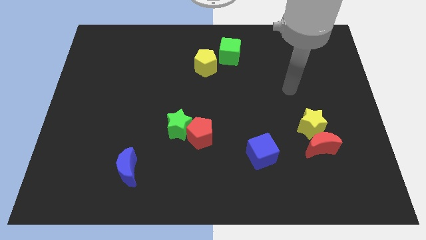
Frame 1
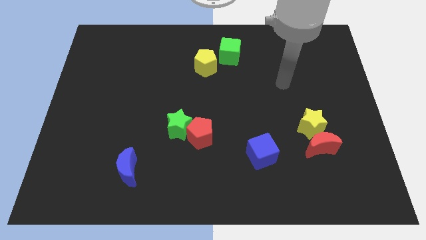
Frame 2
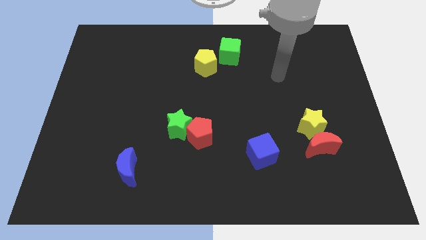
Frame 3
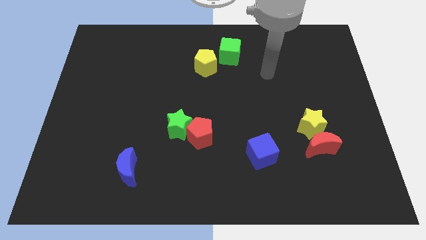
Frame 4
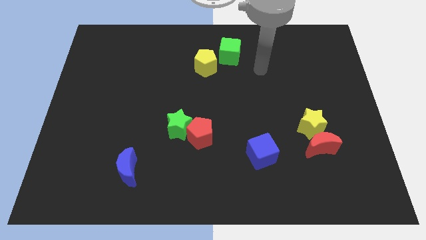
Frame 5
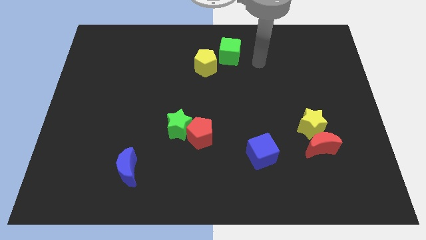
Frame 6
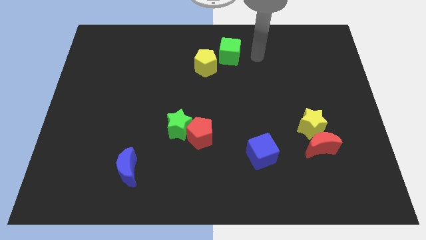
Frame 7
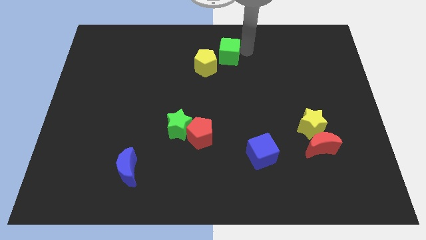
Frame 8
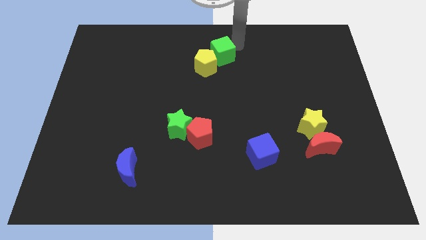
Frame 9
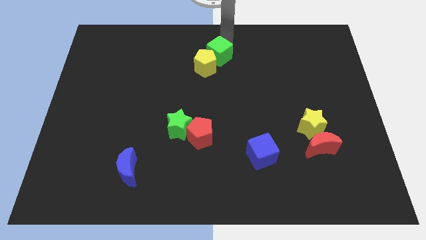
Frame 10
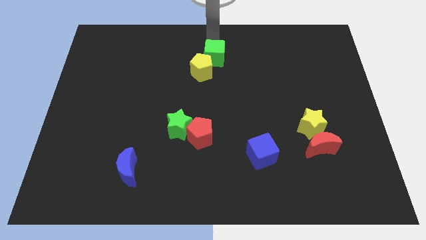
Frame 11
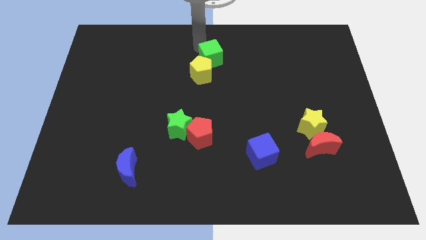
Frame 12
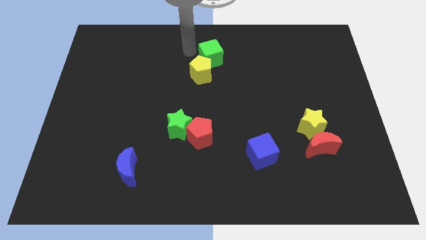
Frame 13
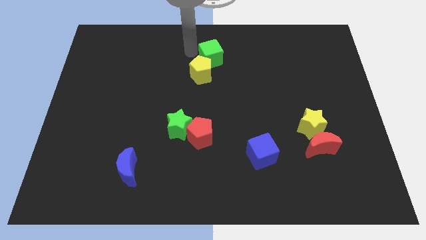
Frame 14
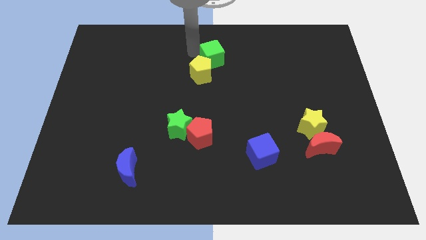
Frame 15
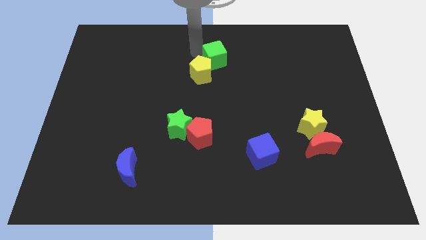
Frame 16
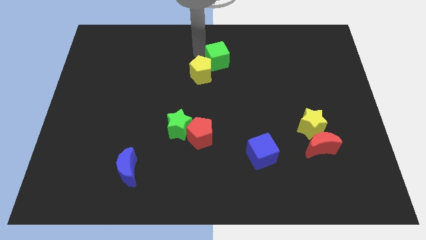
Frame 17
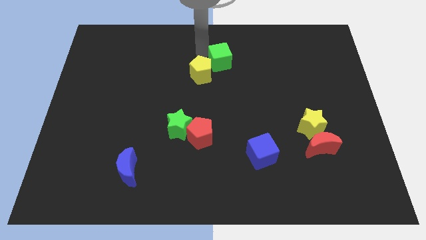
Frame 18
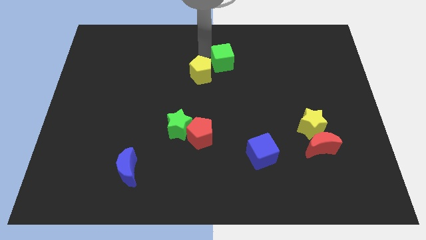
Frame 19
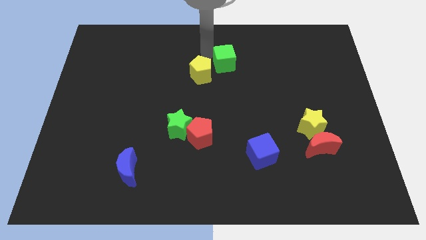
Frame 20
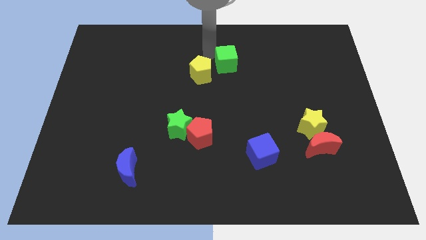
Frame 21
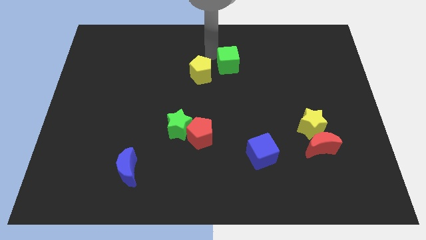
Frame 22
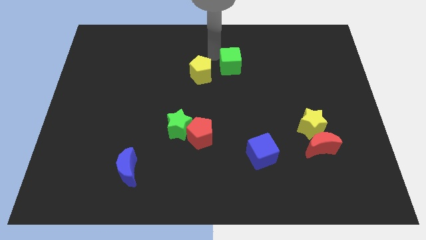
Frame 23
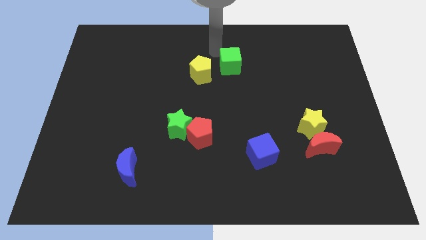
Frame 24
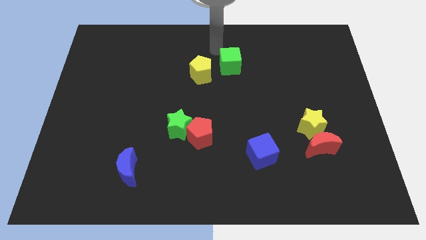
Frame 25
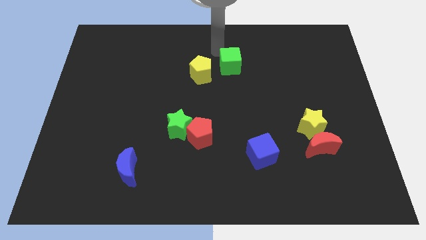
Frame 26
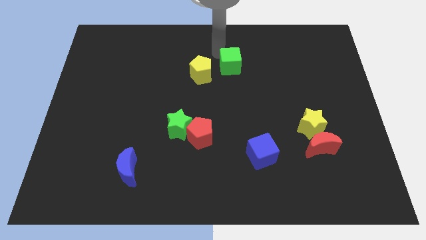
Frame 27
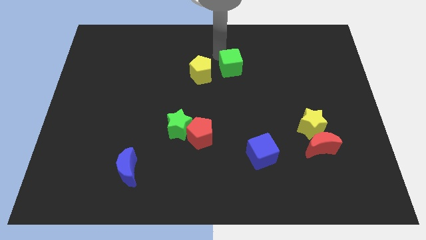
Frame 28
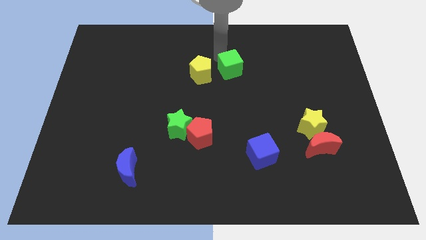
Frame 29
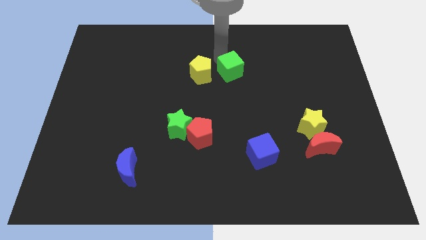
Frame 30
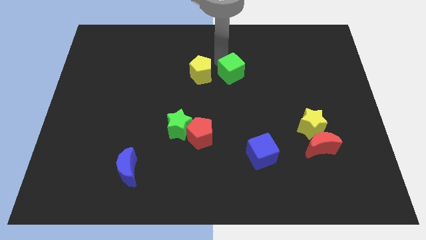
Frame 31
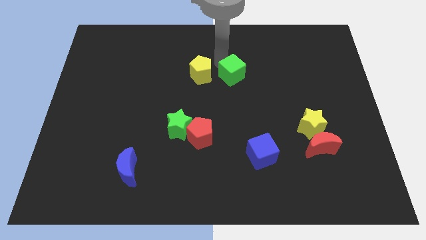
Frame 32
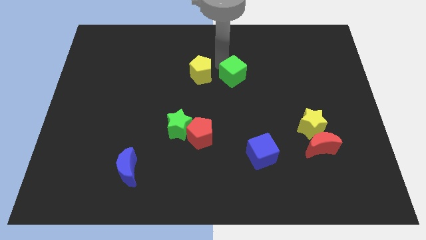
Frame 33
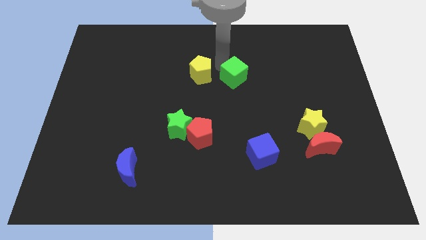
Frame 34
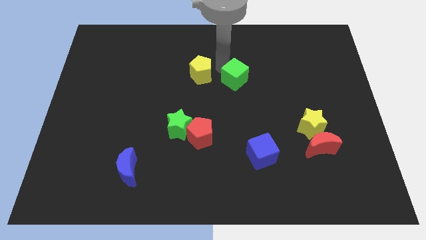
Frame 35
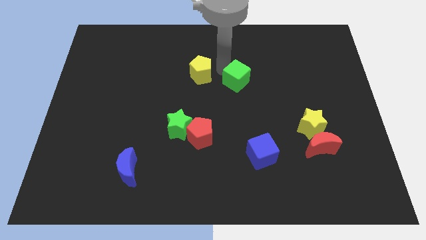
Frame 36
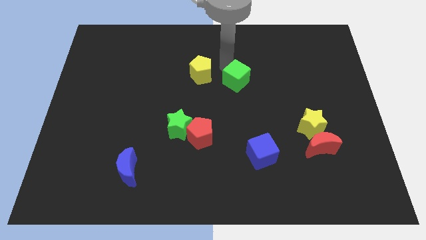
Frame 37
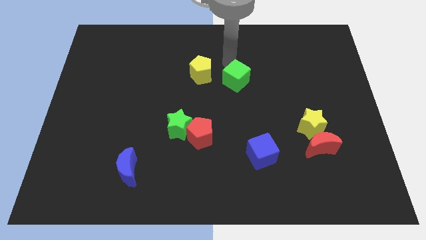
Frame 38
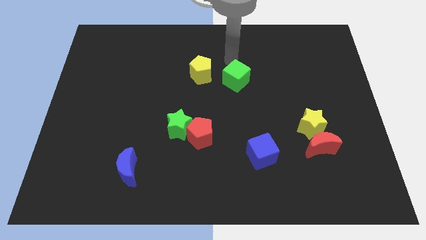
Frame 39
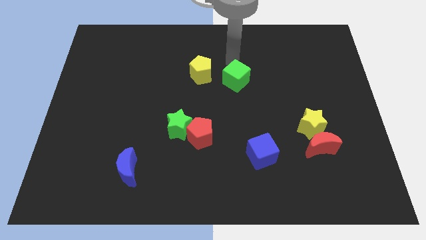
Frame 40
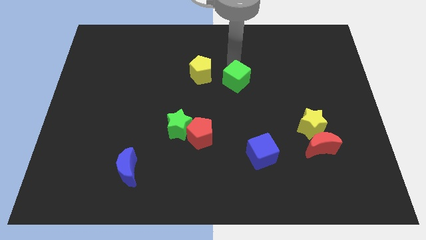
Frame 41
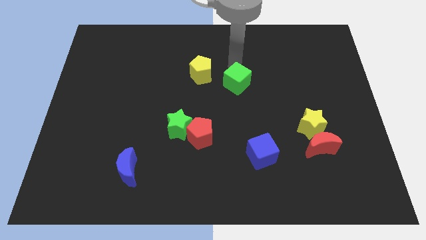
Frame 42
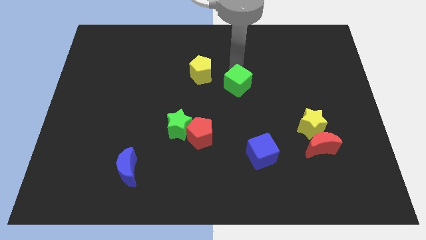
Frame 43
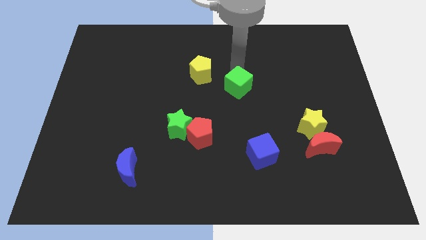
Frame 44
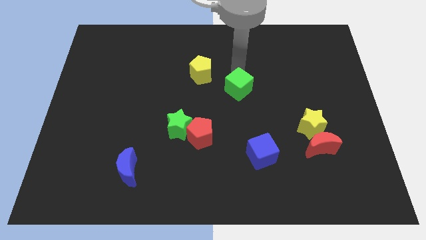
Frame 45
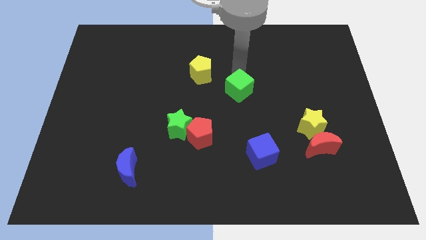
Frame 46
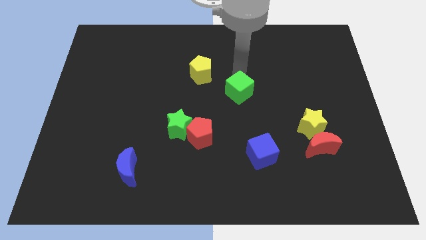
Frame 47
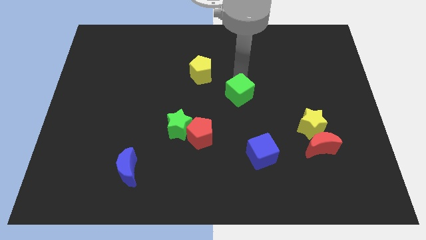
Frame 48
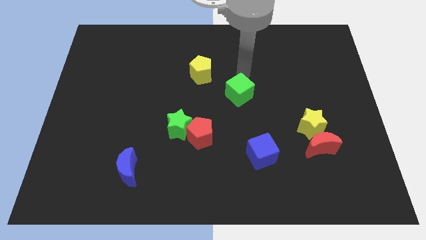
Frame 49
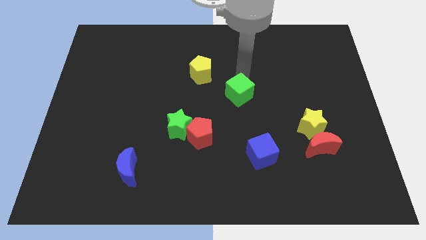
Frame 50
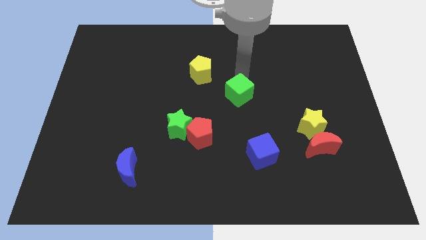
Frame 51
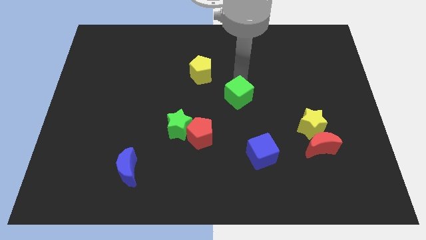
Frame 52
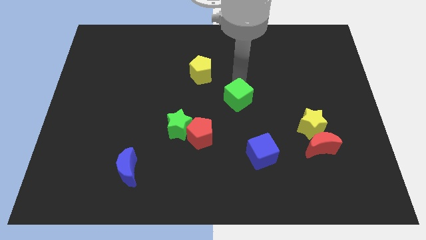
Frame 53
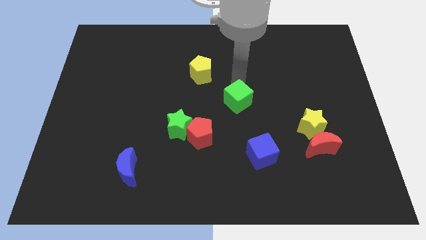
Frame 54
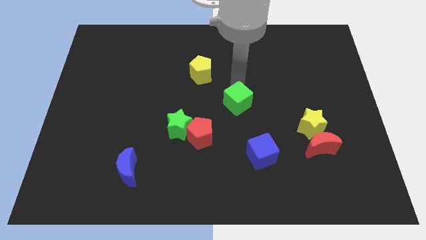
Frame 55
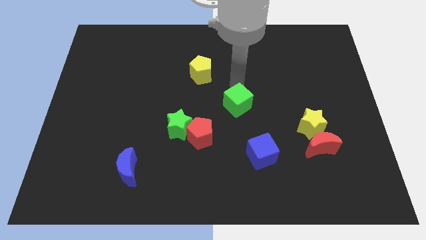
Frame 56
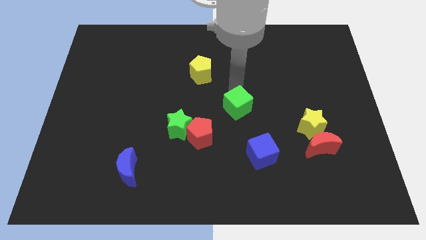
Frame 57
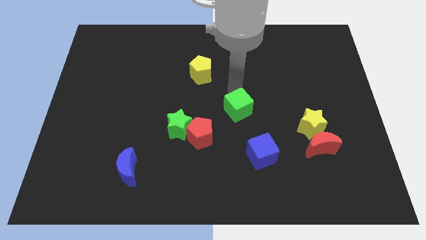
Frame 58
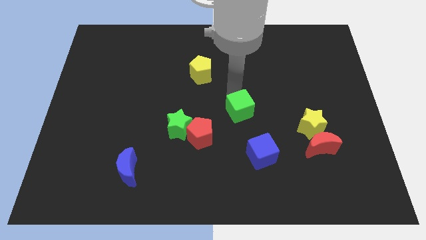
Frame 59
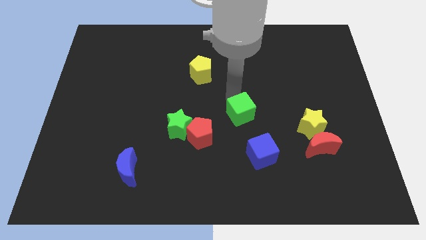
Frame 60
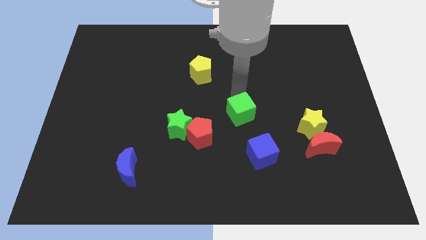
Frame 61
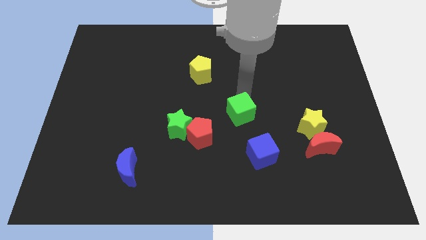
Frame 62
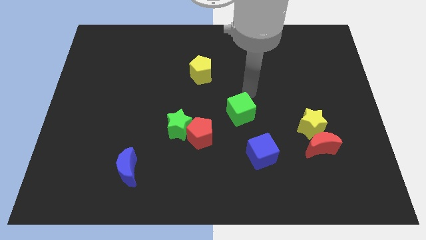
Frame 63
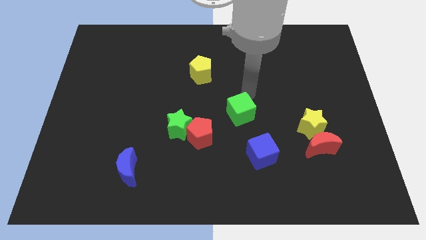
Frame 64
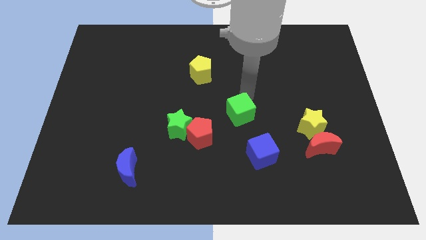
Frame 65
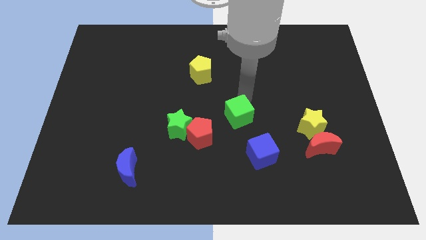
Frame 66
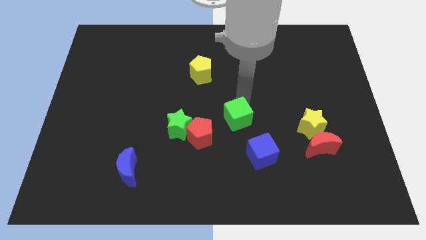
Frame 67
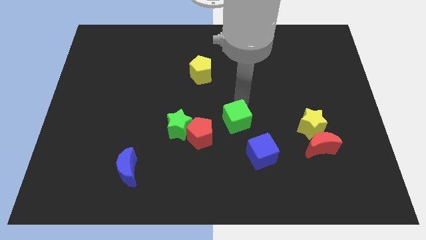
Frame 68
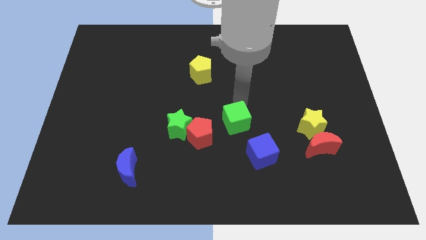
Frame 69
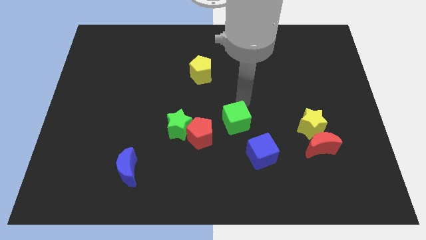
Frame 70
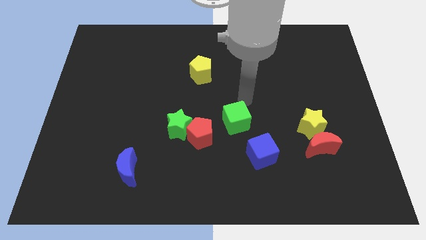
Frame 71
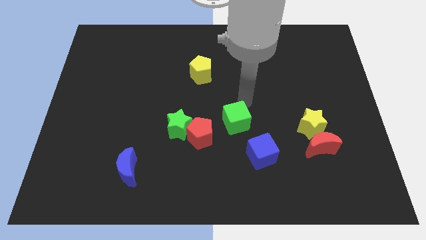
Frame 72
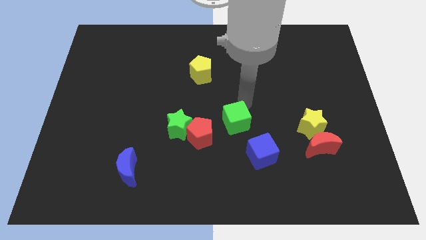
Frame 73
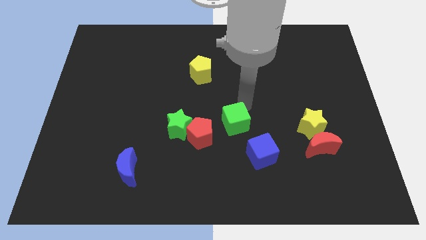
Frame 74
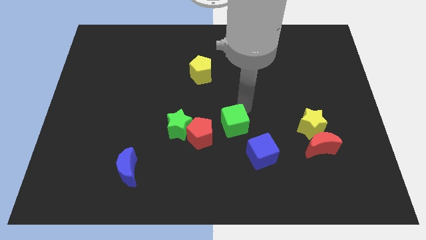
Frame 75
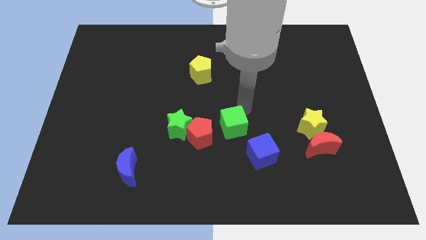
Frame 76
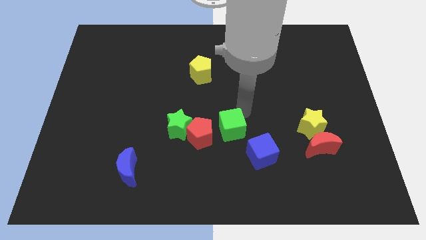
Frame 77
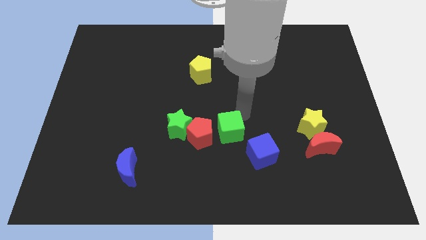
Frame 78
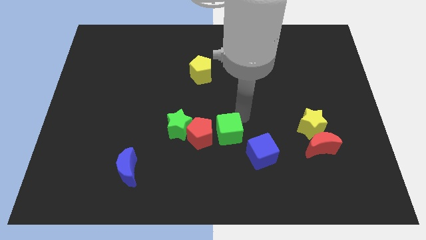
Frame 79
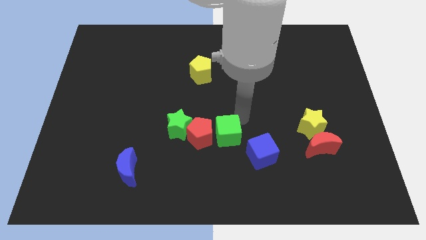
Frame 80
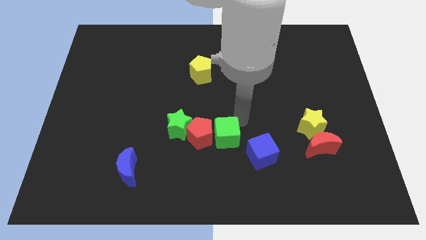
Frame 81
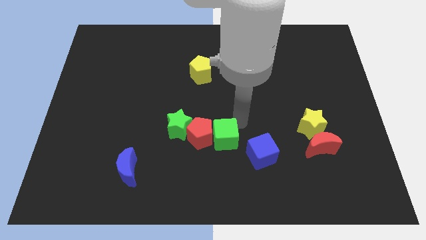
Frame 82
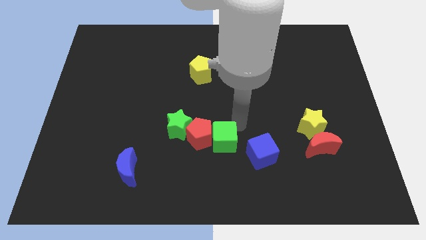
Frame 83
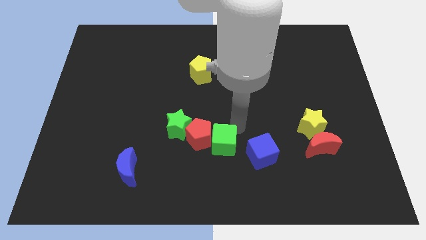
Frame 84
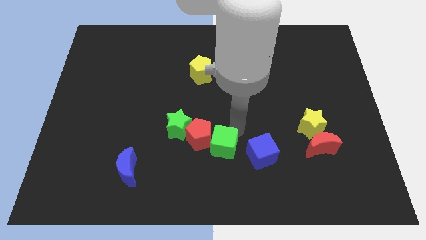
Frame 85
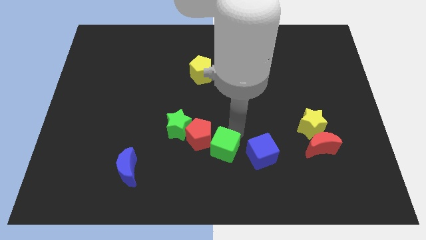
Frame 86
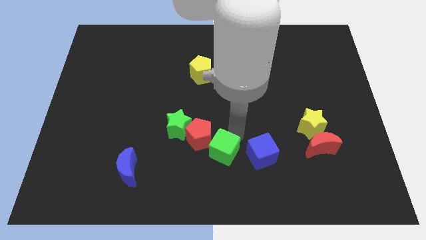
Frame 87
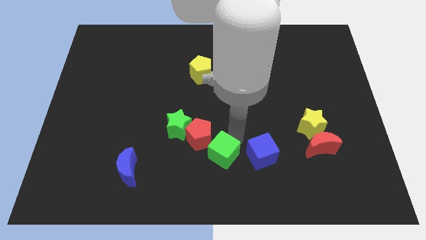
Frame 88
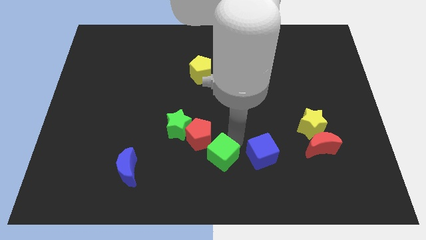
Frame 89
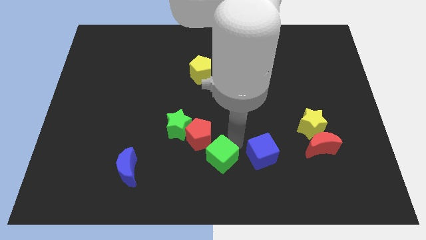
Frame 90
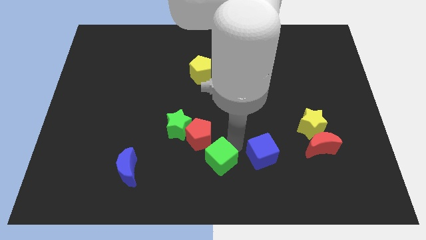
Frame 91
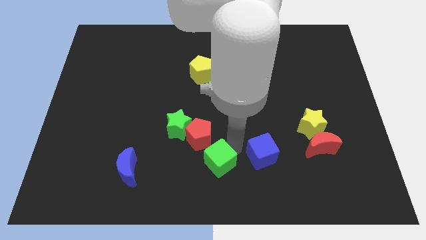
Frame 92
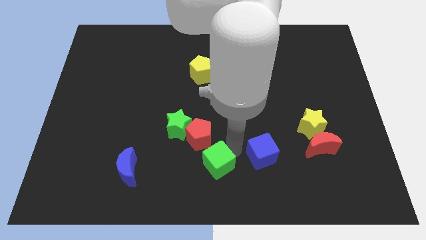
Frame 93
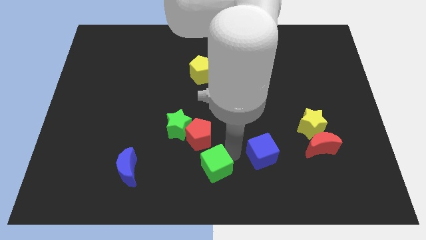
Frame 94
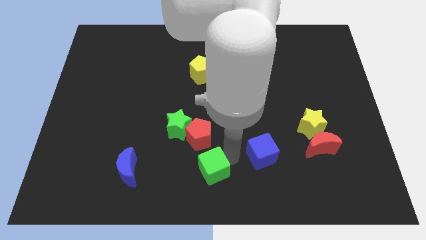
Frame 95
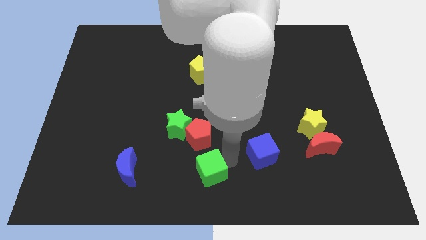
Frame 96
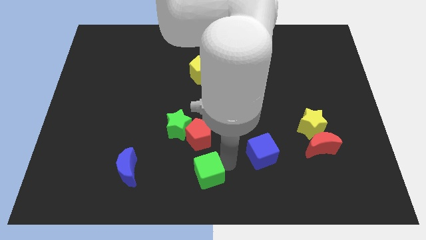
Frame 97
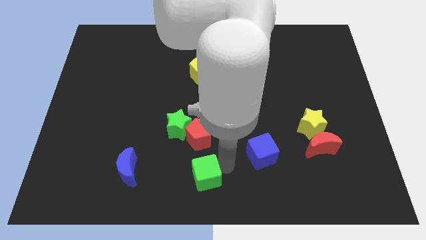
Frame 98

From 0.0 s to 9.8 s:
slide the green cube just right of the blue moon
